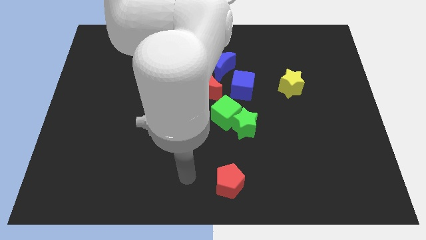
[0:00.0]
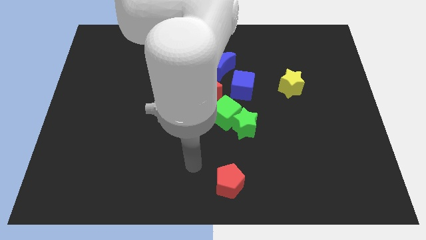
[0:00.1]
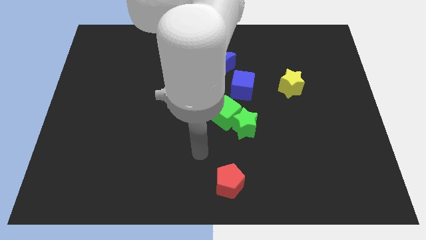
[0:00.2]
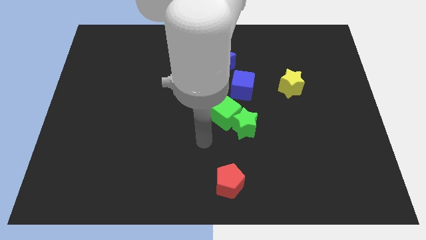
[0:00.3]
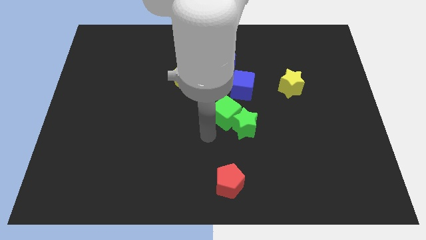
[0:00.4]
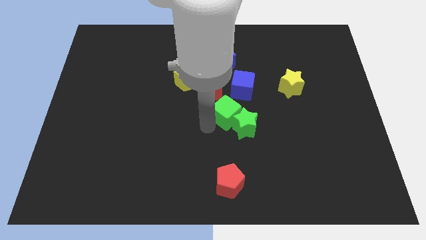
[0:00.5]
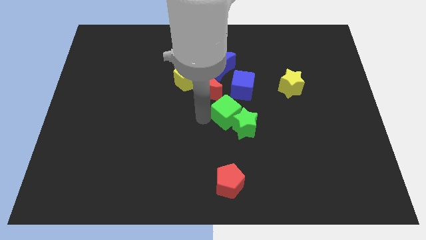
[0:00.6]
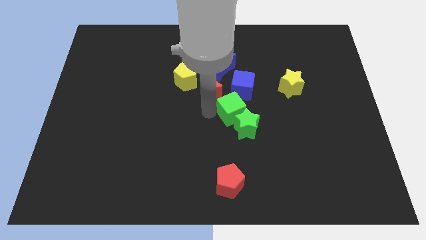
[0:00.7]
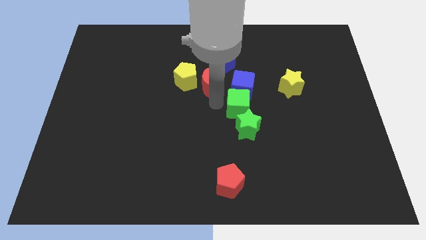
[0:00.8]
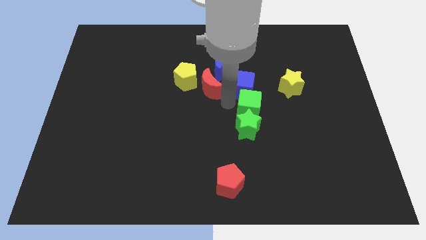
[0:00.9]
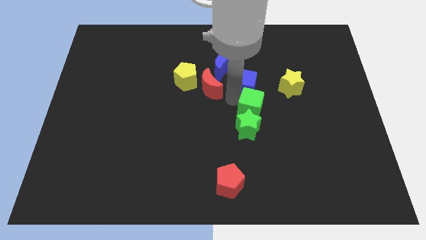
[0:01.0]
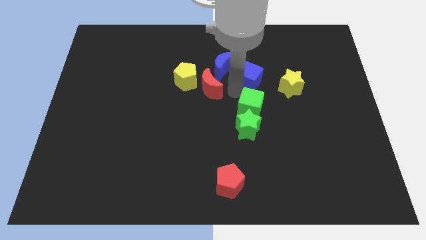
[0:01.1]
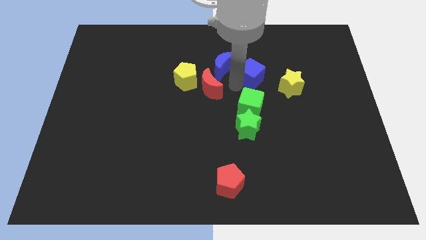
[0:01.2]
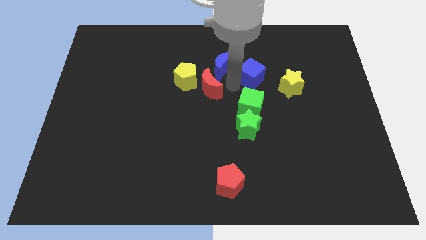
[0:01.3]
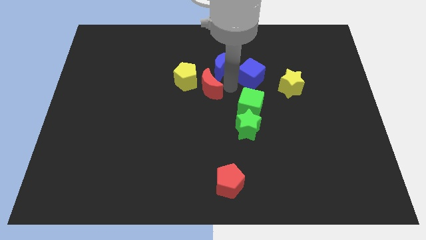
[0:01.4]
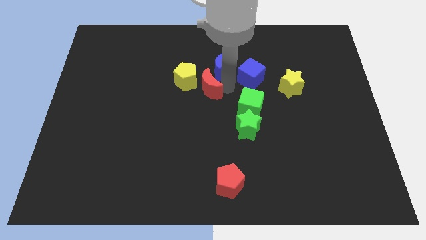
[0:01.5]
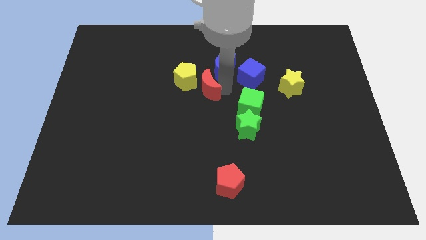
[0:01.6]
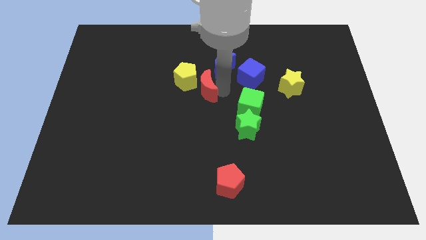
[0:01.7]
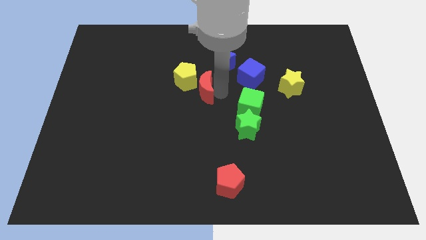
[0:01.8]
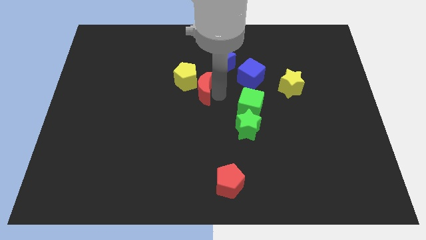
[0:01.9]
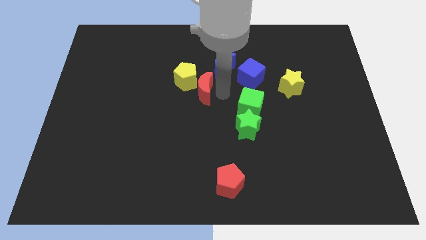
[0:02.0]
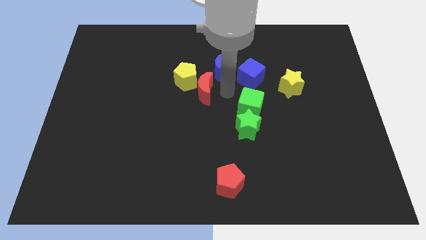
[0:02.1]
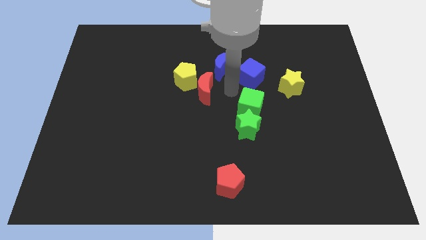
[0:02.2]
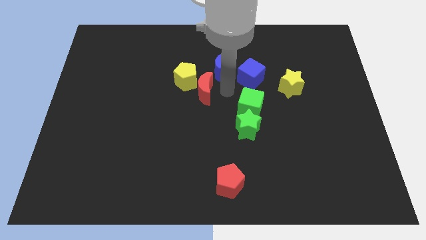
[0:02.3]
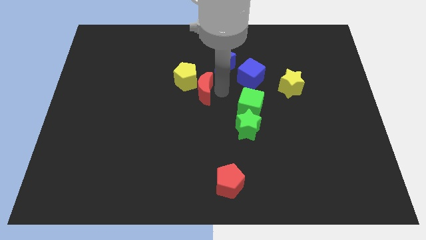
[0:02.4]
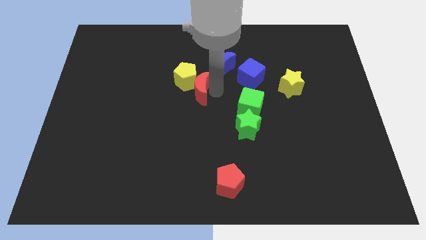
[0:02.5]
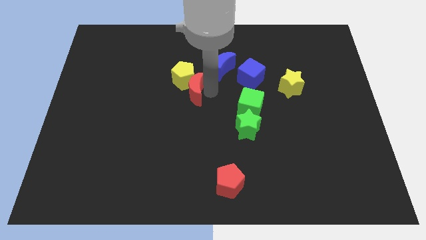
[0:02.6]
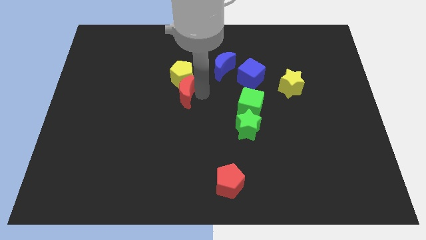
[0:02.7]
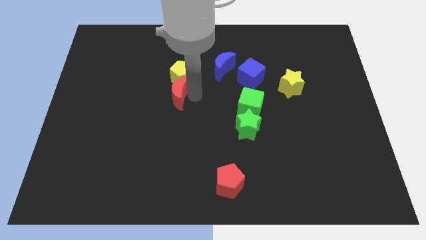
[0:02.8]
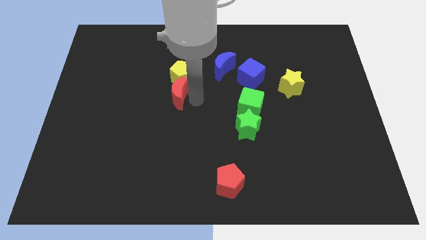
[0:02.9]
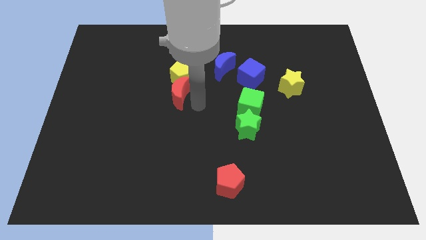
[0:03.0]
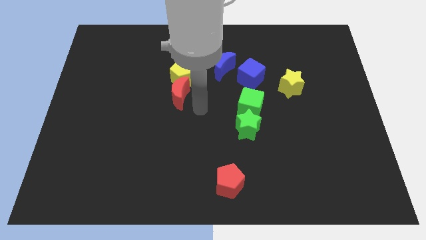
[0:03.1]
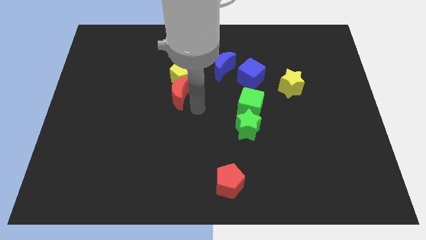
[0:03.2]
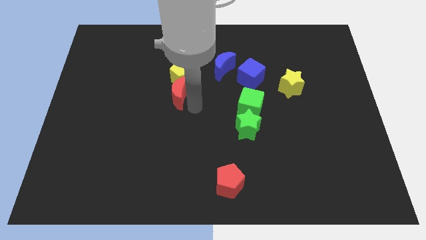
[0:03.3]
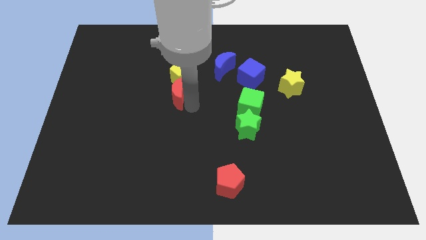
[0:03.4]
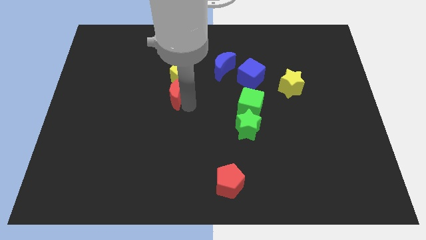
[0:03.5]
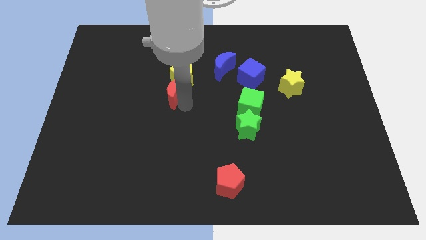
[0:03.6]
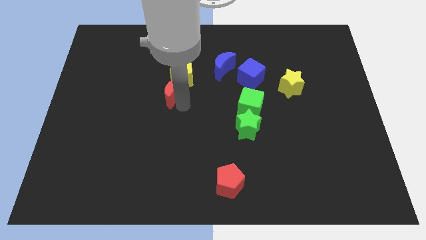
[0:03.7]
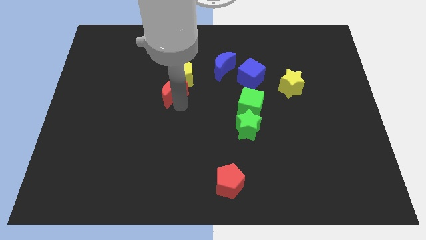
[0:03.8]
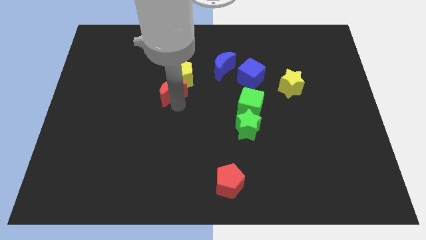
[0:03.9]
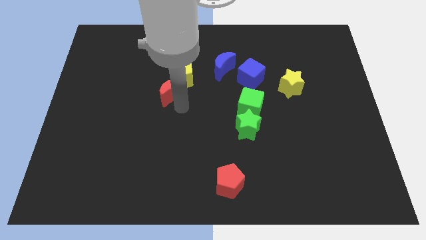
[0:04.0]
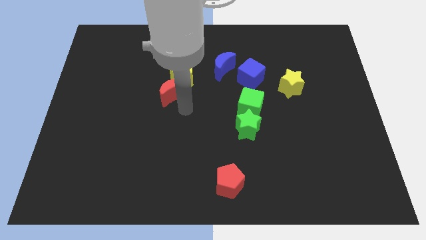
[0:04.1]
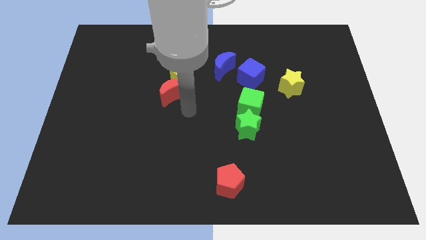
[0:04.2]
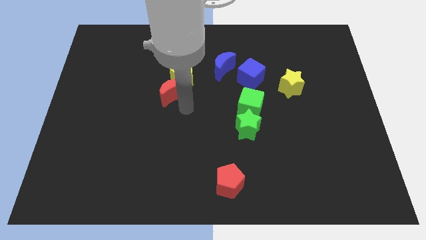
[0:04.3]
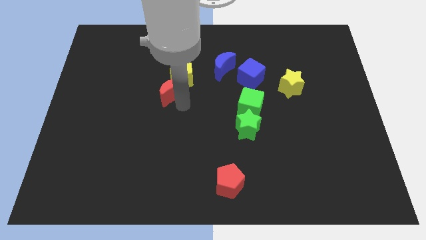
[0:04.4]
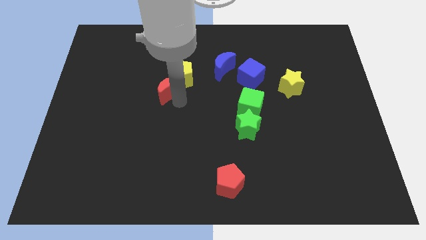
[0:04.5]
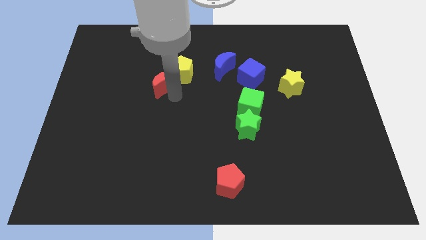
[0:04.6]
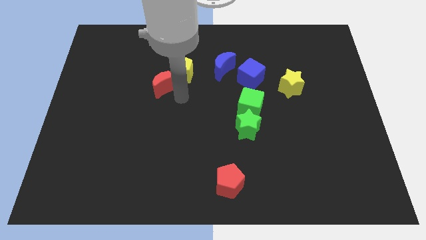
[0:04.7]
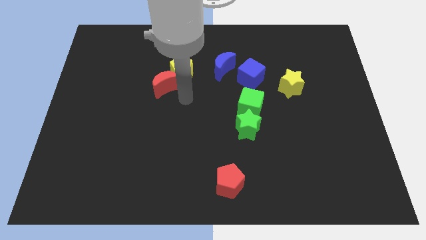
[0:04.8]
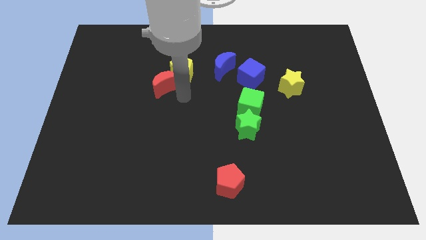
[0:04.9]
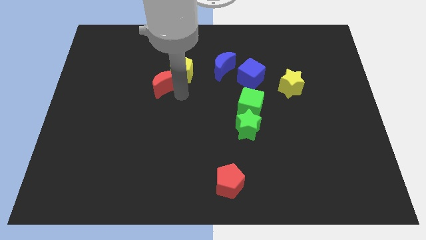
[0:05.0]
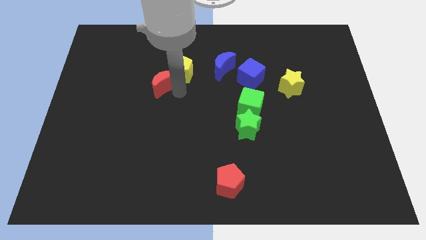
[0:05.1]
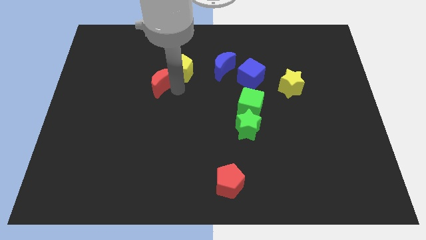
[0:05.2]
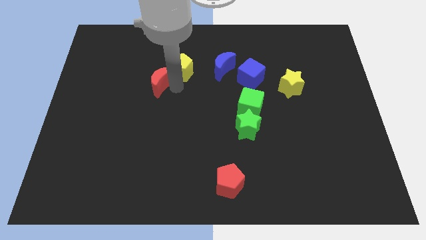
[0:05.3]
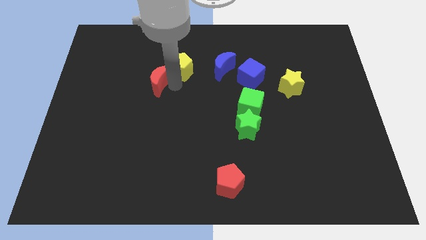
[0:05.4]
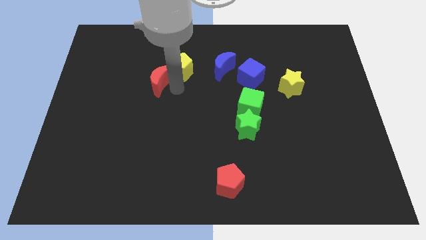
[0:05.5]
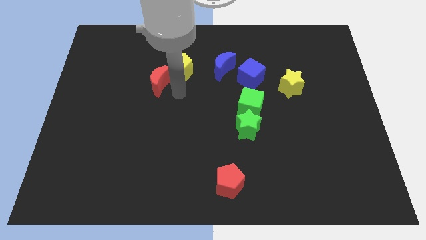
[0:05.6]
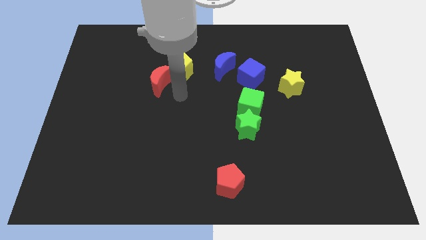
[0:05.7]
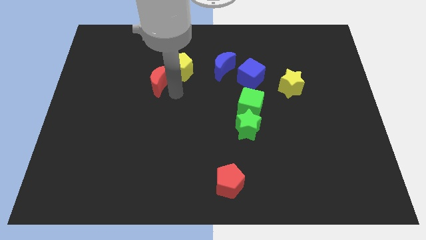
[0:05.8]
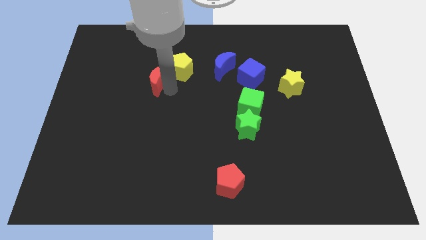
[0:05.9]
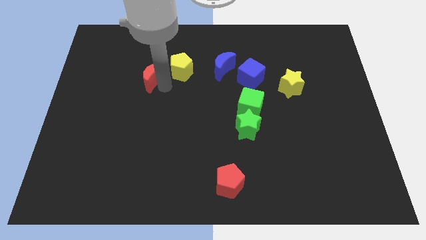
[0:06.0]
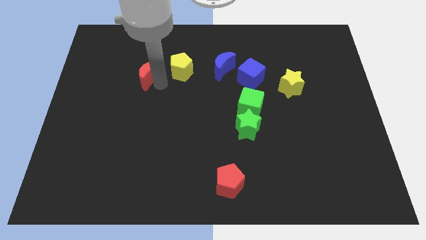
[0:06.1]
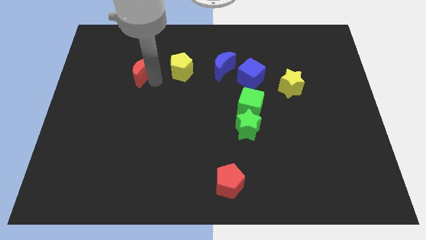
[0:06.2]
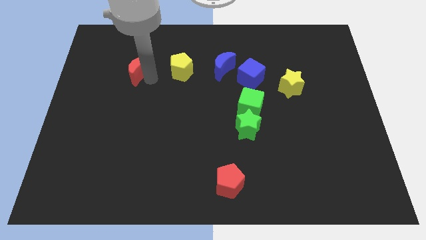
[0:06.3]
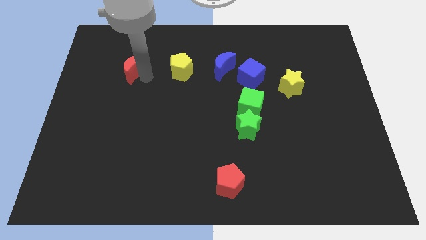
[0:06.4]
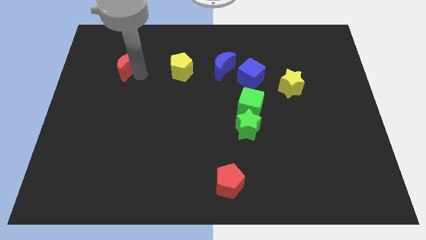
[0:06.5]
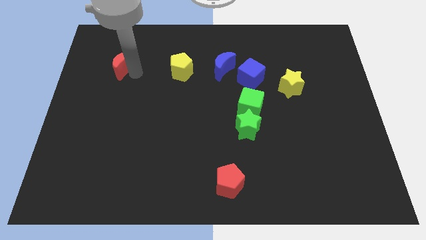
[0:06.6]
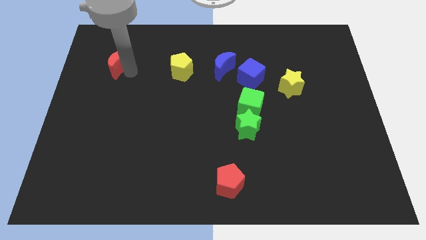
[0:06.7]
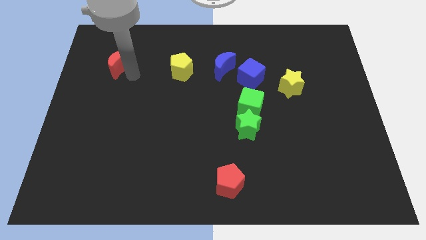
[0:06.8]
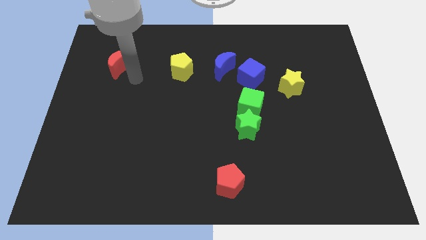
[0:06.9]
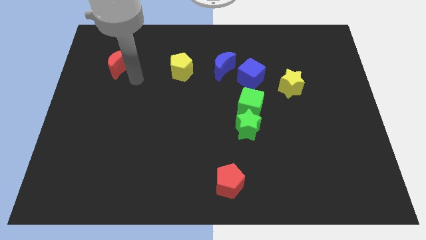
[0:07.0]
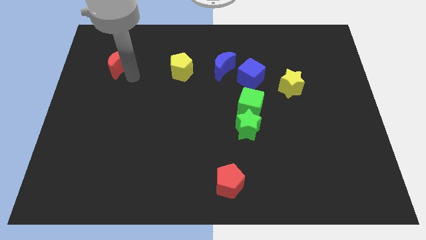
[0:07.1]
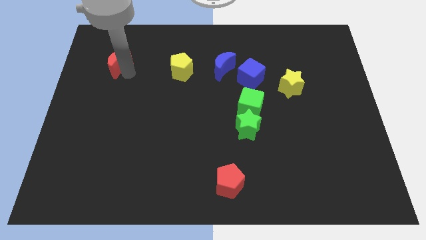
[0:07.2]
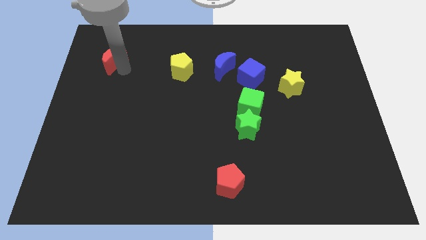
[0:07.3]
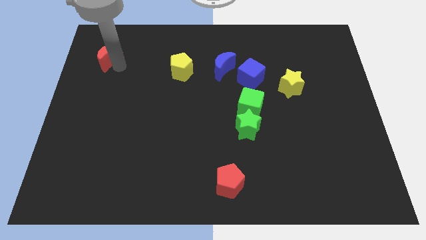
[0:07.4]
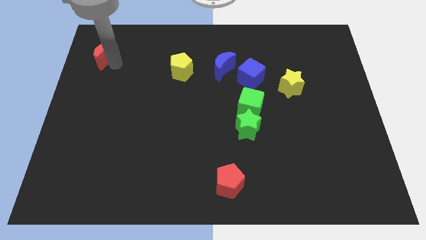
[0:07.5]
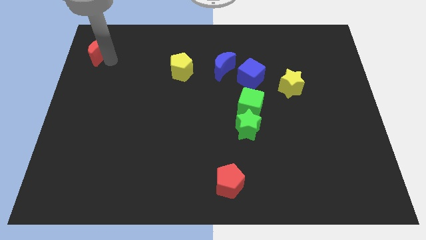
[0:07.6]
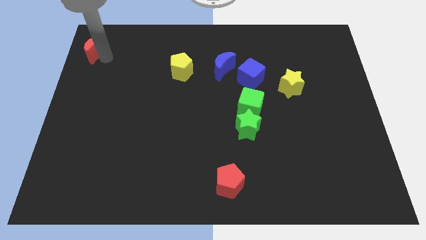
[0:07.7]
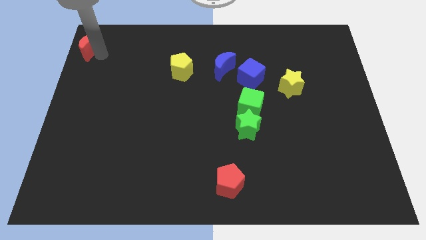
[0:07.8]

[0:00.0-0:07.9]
move the red moon to the top left
